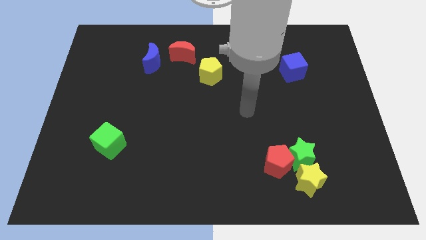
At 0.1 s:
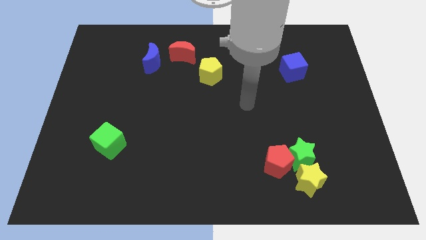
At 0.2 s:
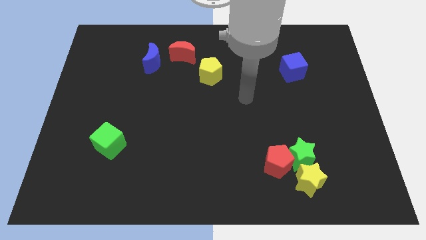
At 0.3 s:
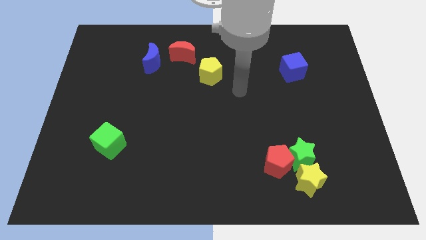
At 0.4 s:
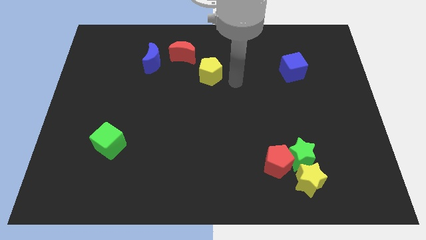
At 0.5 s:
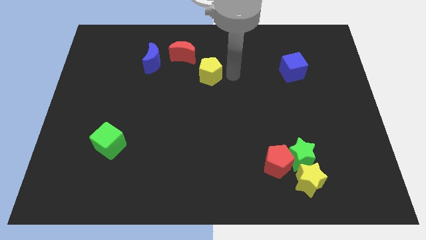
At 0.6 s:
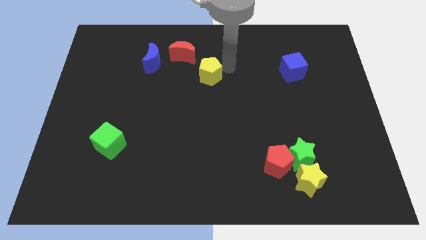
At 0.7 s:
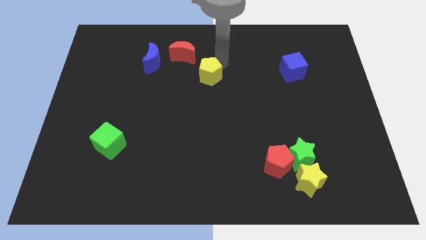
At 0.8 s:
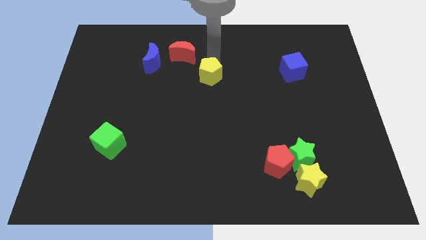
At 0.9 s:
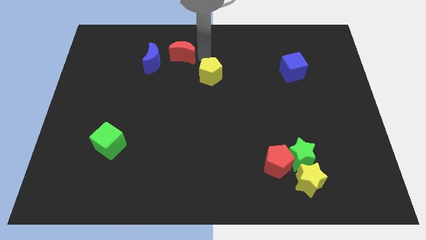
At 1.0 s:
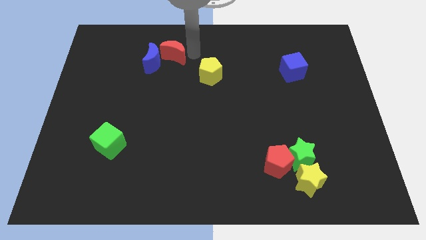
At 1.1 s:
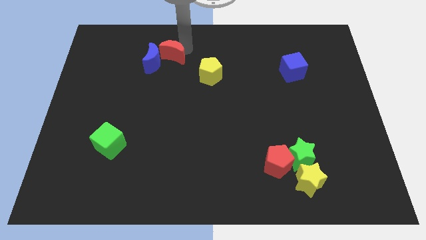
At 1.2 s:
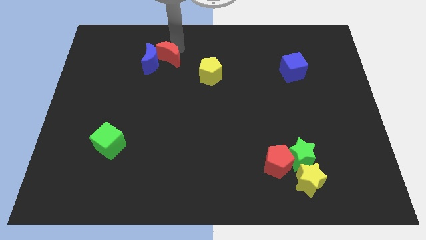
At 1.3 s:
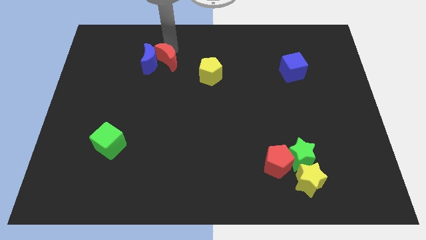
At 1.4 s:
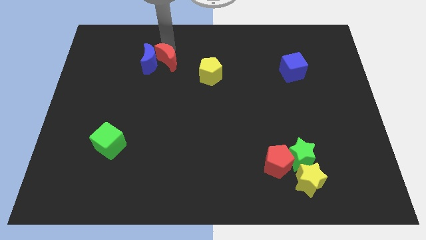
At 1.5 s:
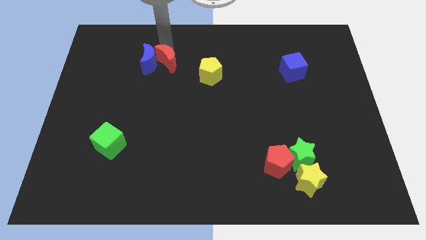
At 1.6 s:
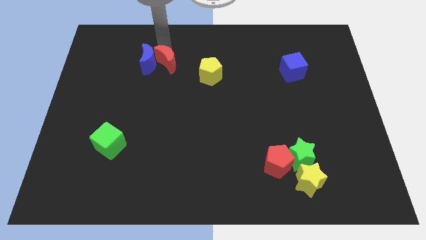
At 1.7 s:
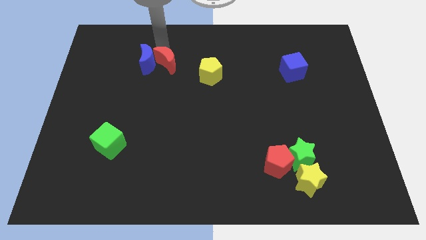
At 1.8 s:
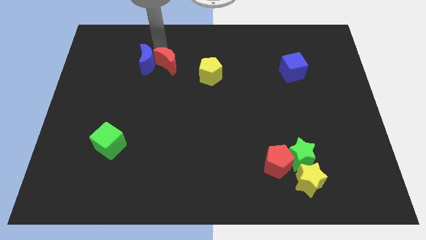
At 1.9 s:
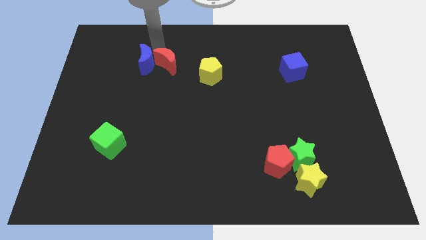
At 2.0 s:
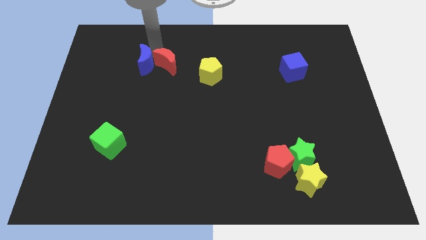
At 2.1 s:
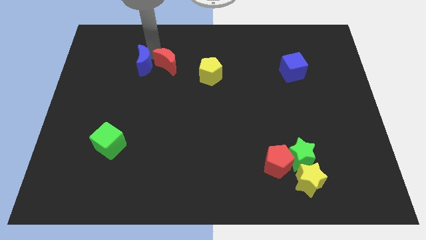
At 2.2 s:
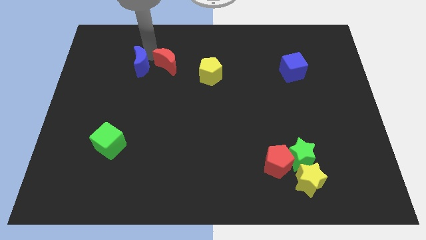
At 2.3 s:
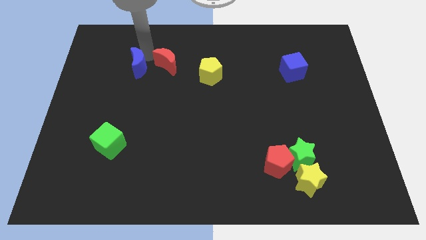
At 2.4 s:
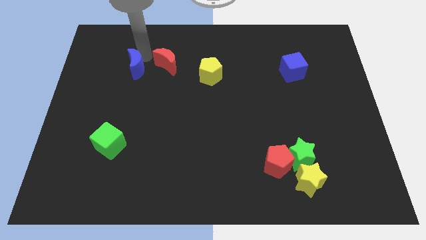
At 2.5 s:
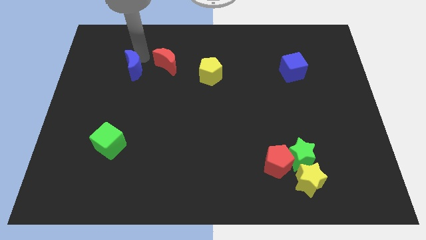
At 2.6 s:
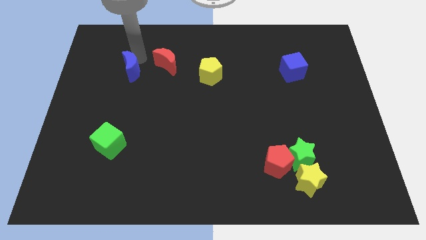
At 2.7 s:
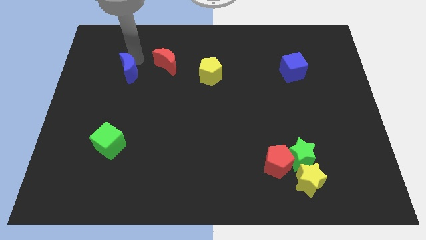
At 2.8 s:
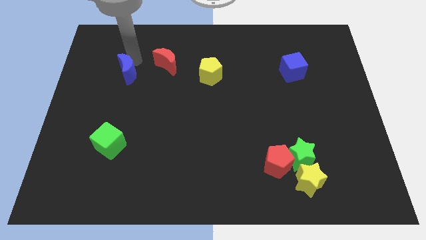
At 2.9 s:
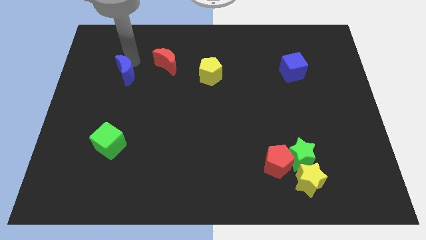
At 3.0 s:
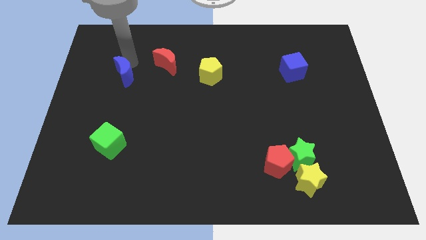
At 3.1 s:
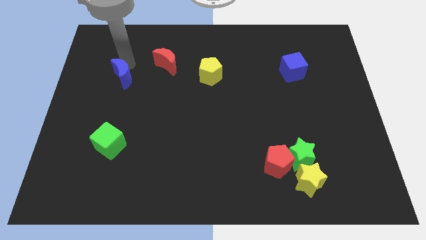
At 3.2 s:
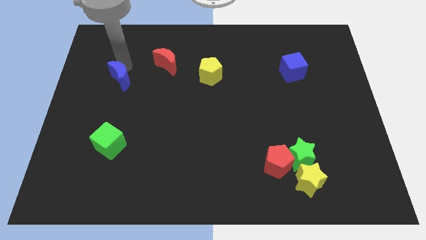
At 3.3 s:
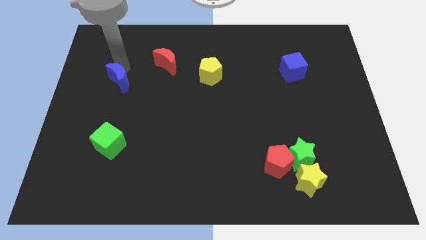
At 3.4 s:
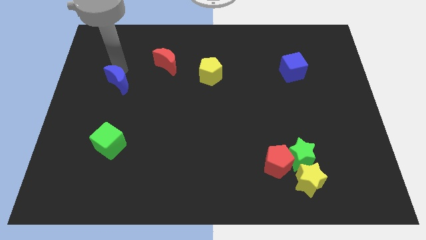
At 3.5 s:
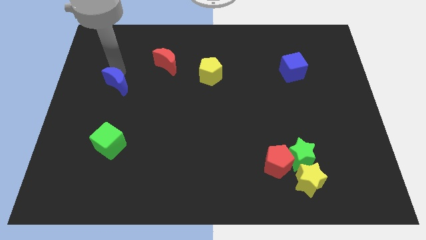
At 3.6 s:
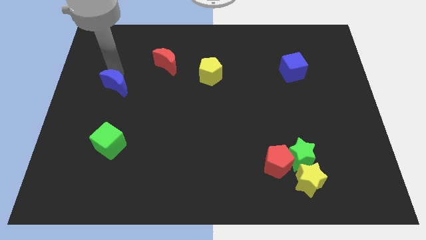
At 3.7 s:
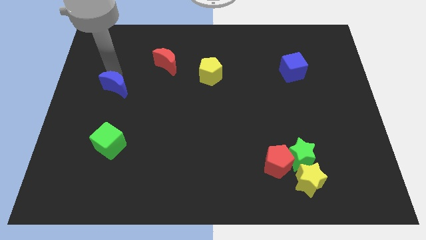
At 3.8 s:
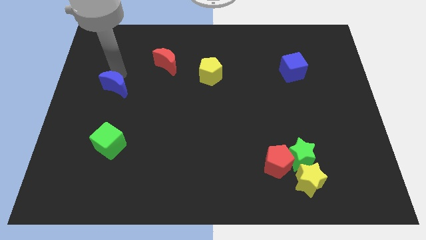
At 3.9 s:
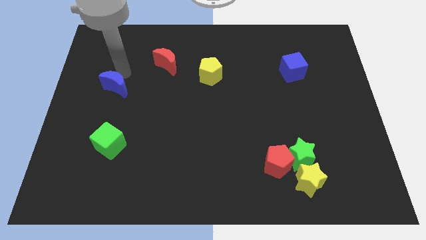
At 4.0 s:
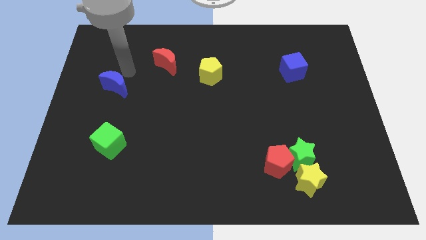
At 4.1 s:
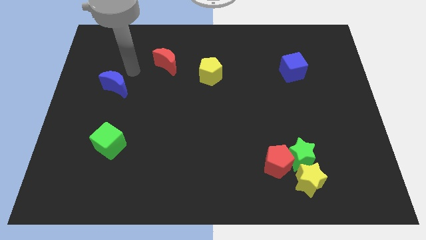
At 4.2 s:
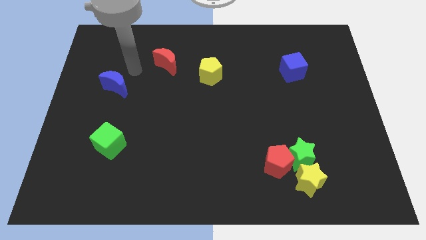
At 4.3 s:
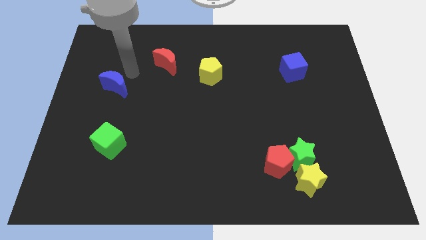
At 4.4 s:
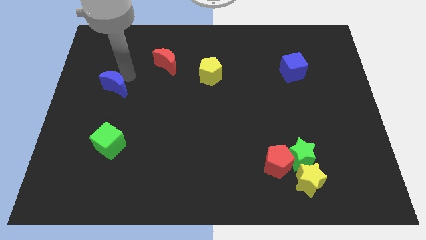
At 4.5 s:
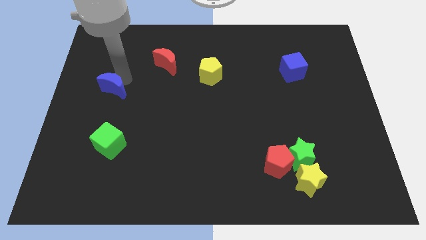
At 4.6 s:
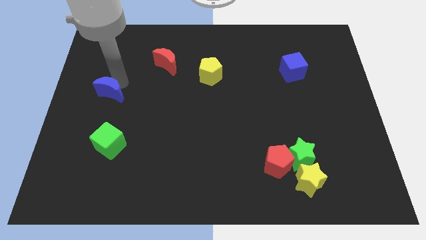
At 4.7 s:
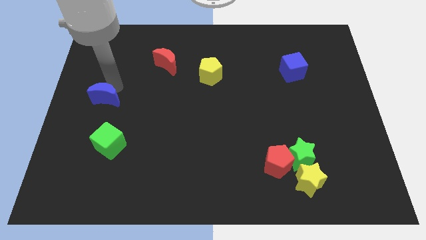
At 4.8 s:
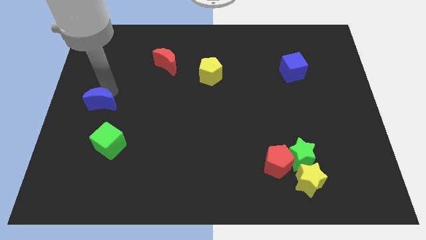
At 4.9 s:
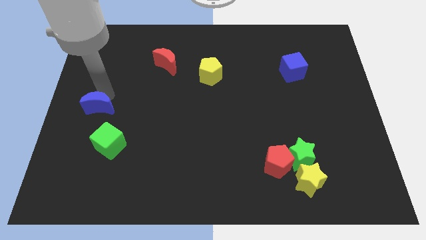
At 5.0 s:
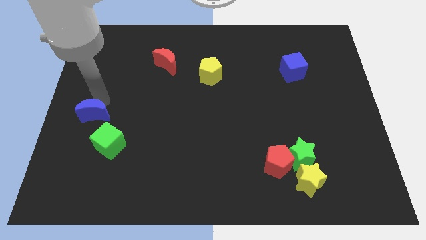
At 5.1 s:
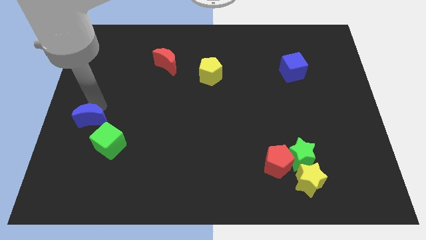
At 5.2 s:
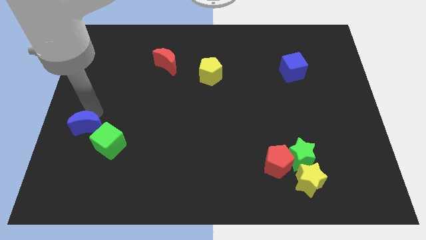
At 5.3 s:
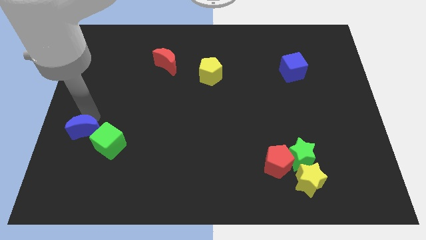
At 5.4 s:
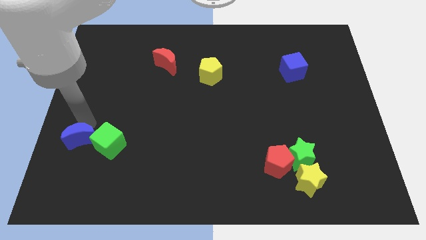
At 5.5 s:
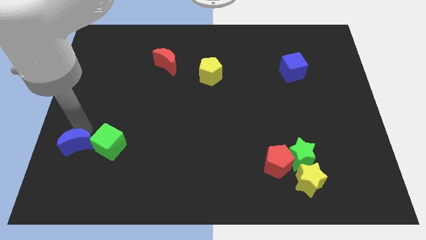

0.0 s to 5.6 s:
slide the blue moon to the bottom left of the green cube

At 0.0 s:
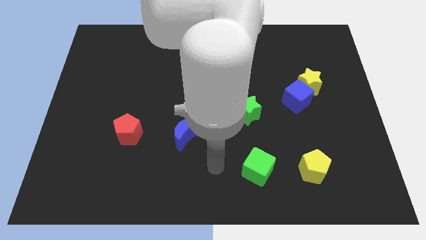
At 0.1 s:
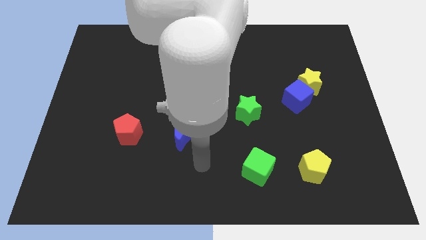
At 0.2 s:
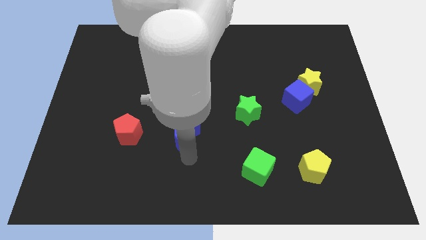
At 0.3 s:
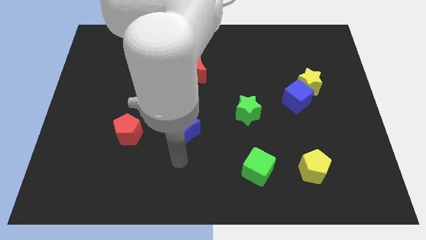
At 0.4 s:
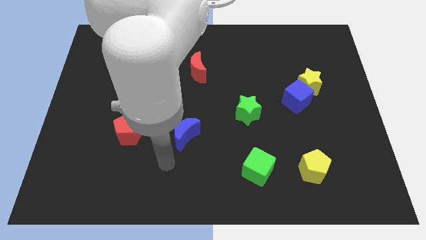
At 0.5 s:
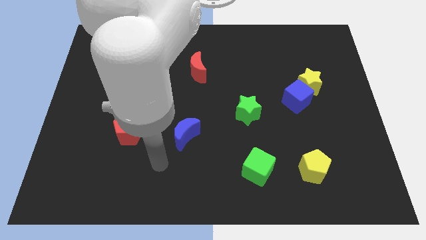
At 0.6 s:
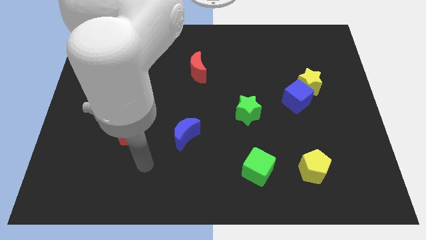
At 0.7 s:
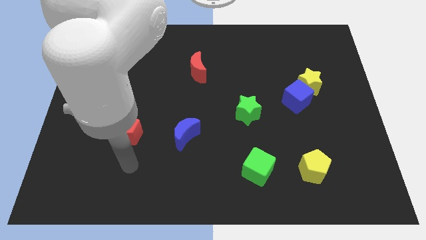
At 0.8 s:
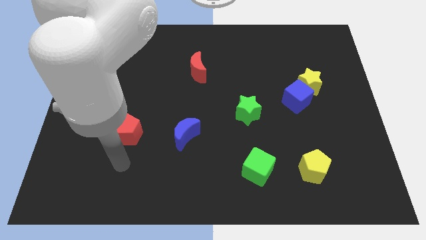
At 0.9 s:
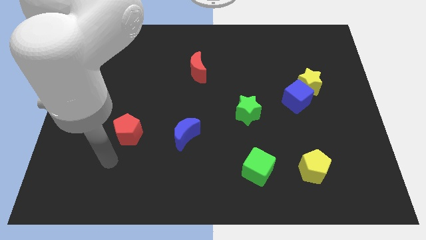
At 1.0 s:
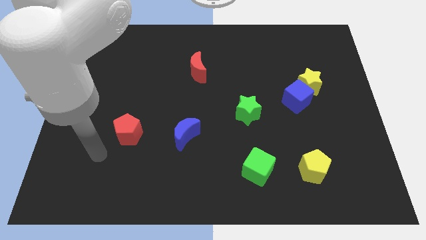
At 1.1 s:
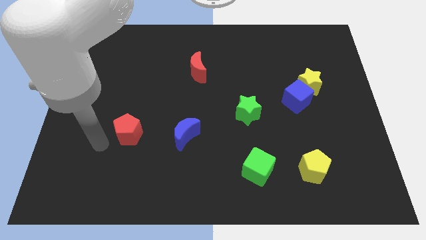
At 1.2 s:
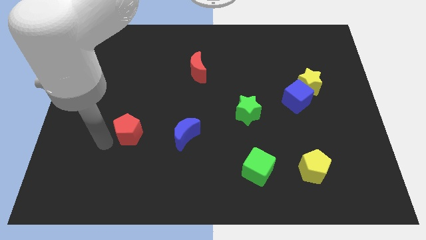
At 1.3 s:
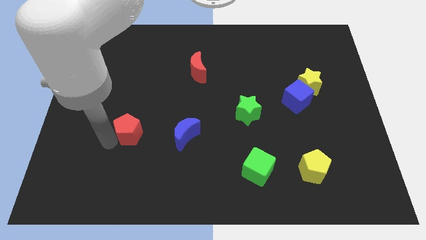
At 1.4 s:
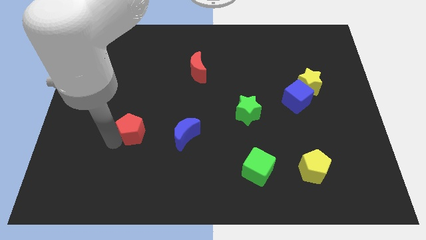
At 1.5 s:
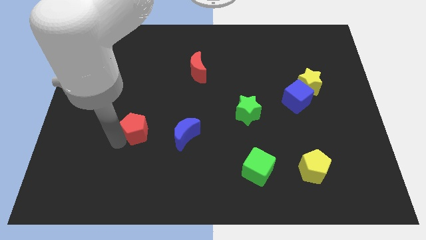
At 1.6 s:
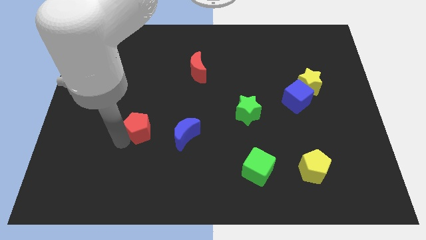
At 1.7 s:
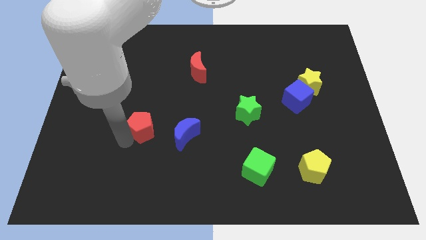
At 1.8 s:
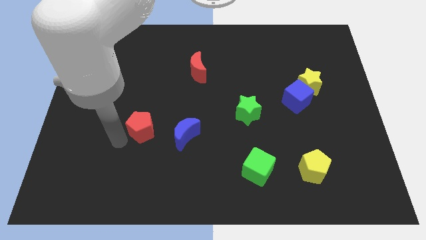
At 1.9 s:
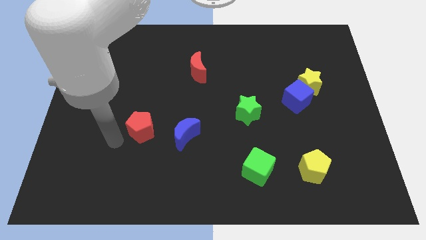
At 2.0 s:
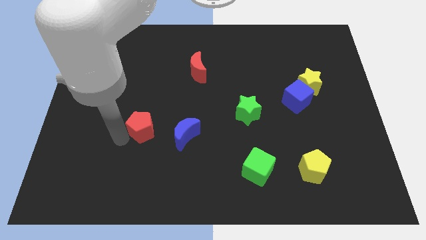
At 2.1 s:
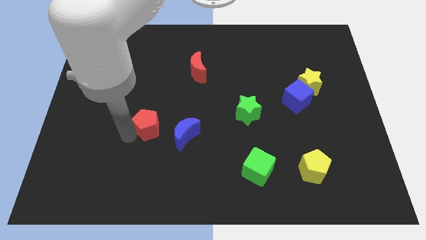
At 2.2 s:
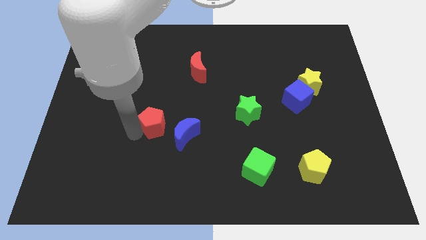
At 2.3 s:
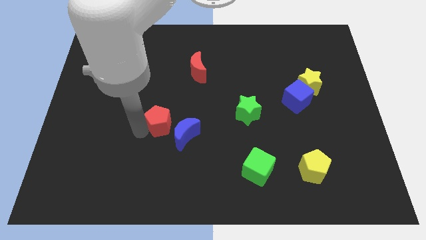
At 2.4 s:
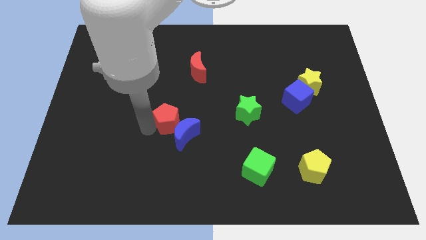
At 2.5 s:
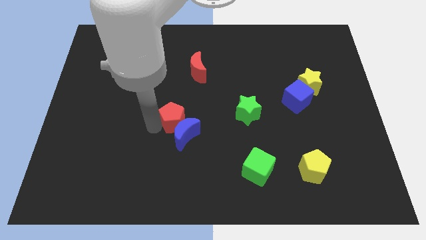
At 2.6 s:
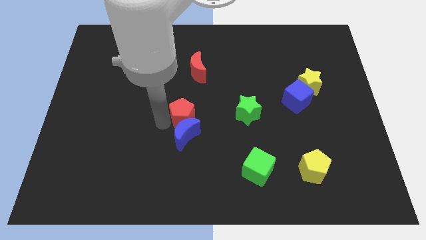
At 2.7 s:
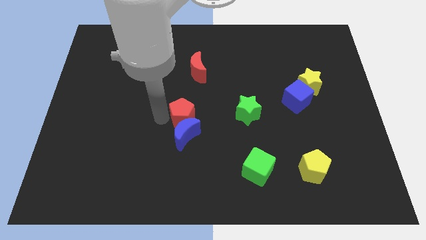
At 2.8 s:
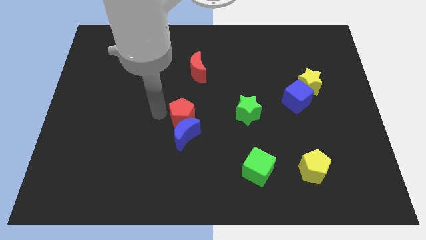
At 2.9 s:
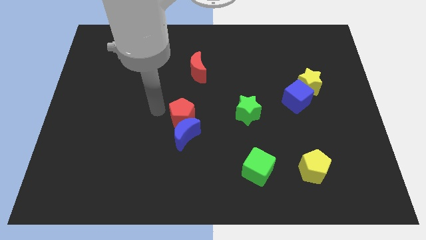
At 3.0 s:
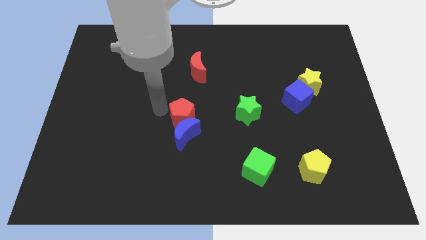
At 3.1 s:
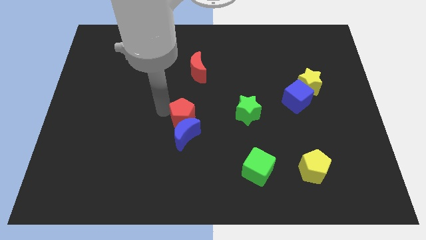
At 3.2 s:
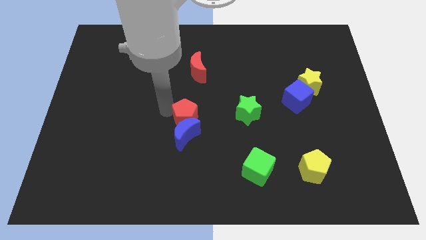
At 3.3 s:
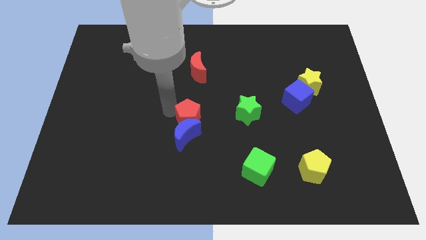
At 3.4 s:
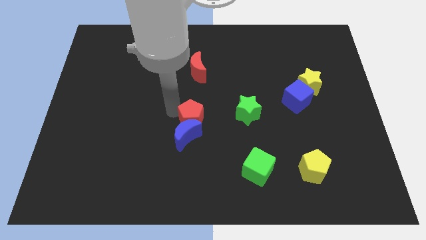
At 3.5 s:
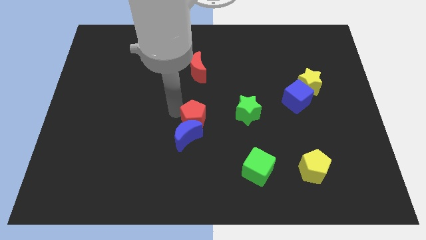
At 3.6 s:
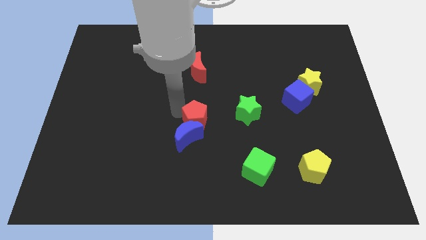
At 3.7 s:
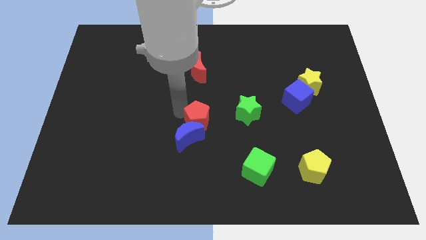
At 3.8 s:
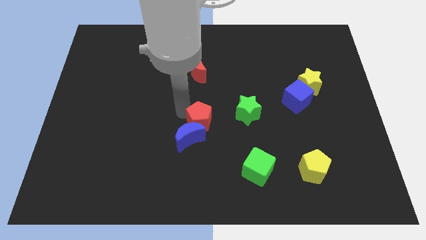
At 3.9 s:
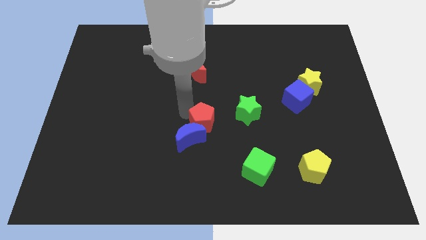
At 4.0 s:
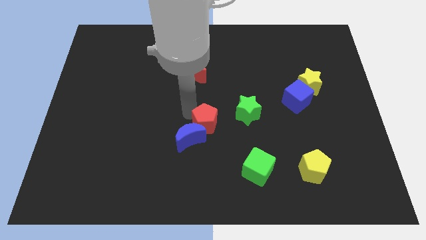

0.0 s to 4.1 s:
move the red pentagon to the bottom left of the green star
